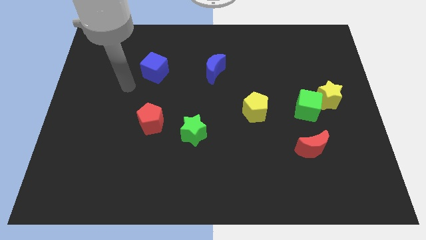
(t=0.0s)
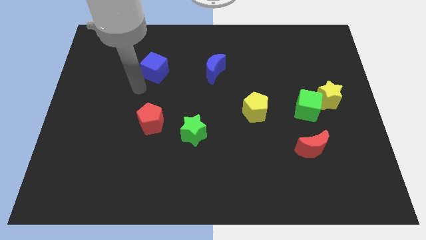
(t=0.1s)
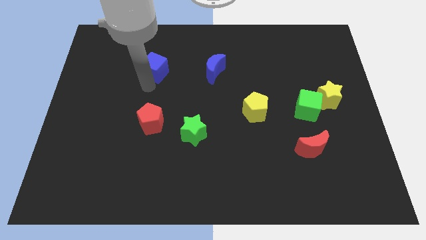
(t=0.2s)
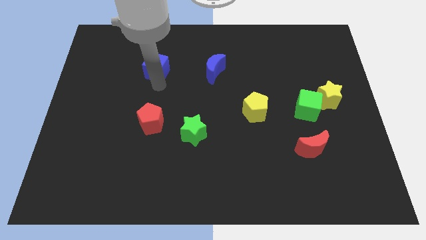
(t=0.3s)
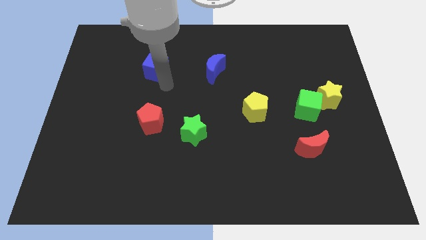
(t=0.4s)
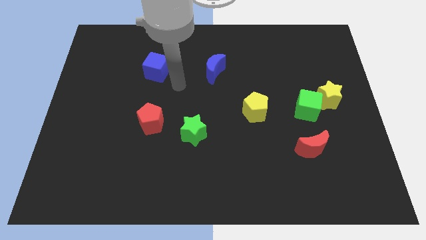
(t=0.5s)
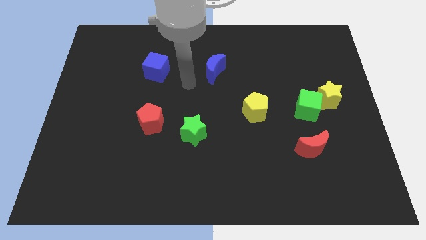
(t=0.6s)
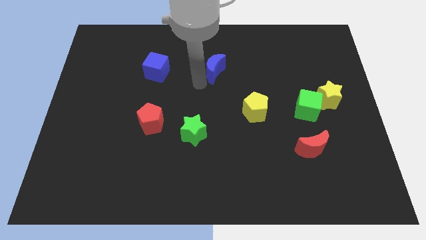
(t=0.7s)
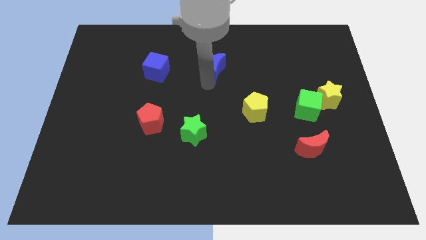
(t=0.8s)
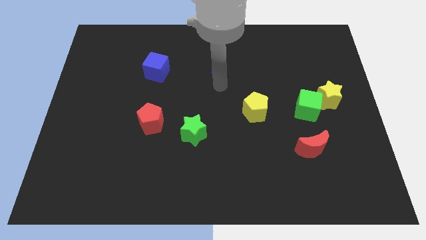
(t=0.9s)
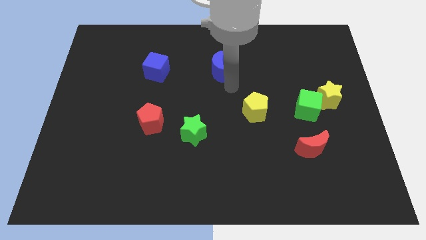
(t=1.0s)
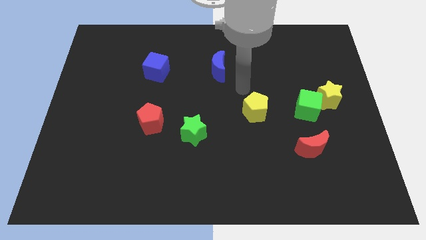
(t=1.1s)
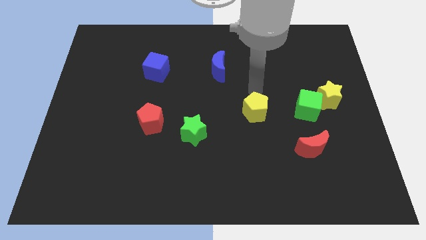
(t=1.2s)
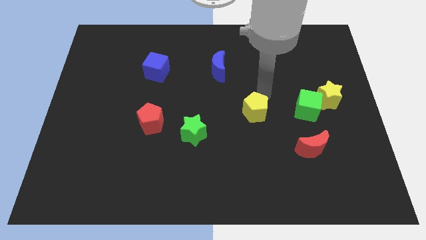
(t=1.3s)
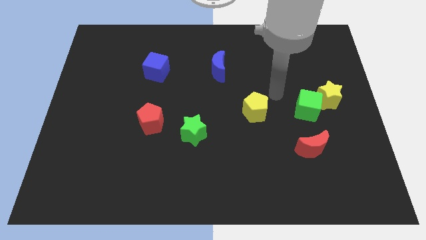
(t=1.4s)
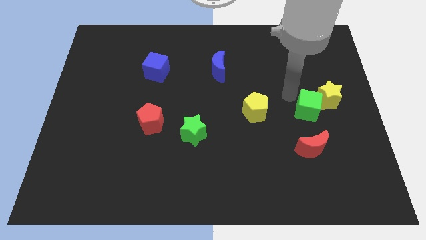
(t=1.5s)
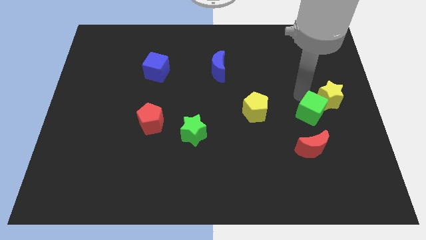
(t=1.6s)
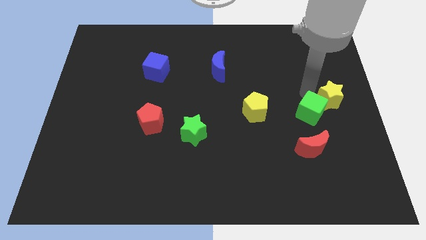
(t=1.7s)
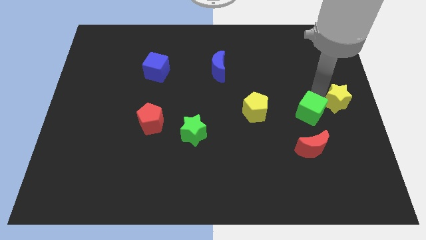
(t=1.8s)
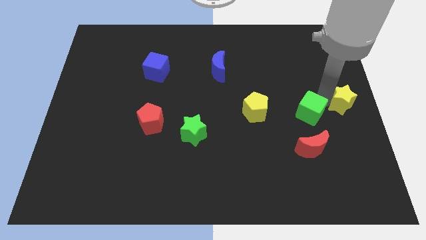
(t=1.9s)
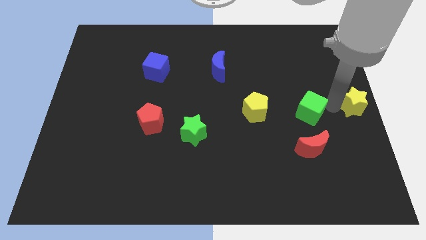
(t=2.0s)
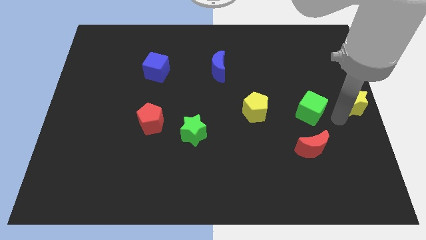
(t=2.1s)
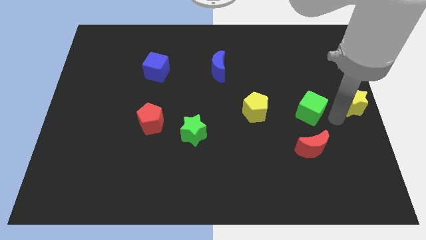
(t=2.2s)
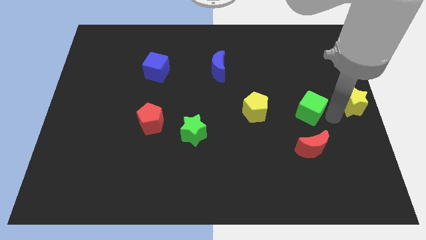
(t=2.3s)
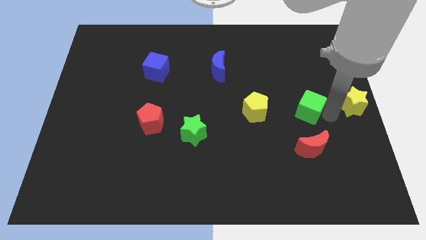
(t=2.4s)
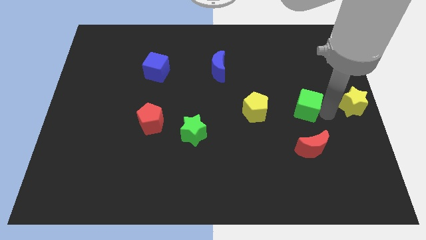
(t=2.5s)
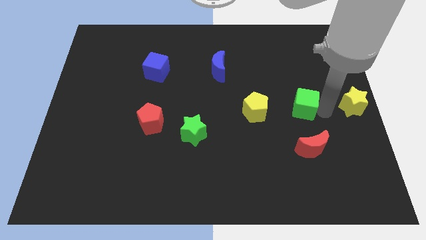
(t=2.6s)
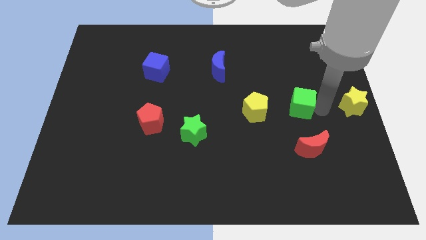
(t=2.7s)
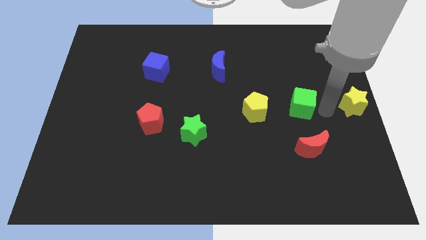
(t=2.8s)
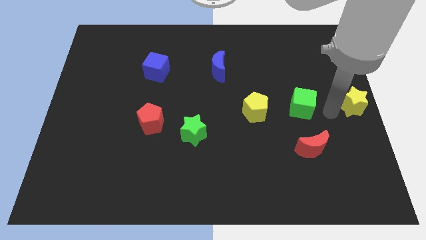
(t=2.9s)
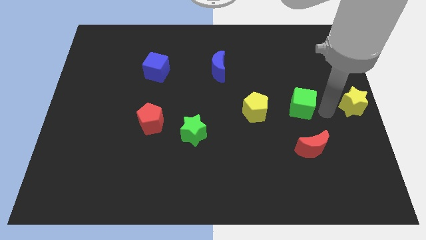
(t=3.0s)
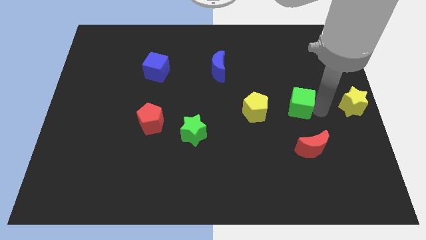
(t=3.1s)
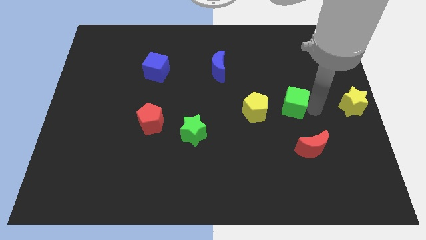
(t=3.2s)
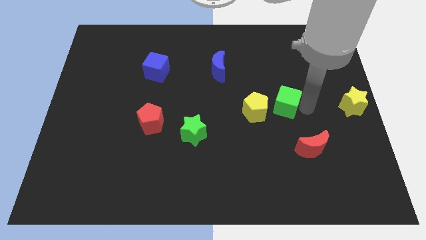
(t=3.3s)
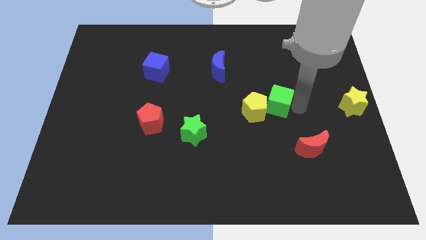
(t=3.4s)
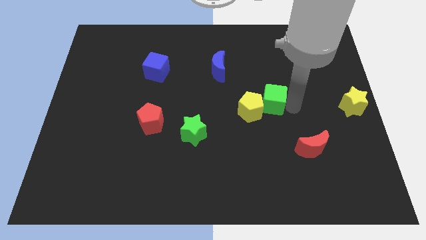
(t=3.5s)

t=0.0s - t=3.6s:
move the green cube a little to the left

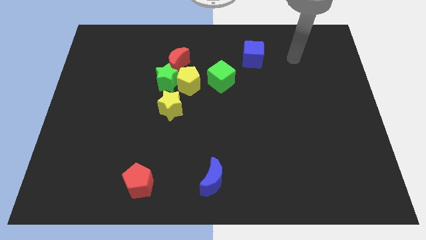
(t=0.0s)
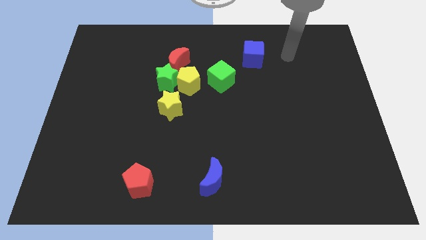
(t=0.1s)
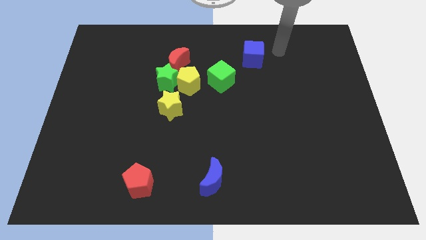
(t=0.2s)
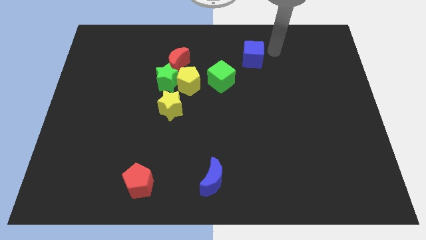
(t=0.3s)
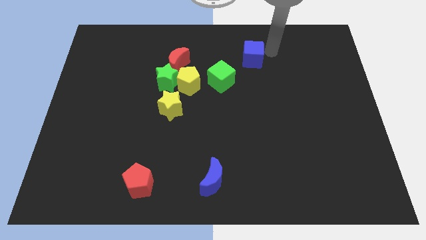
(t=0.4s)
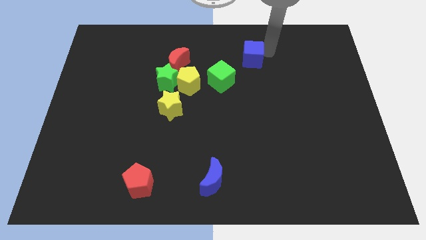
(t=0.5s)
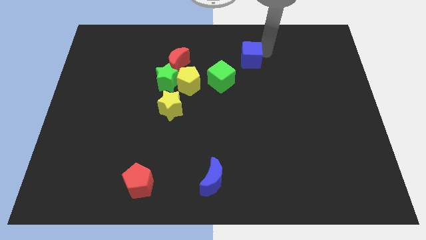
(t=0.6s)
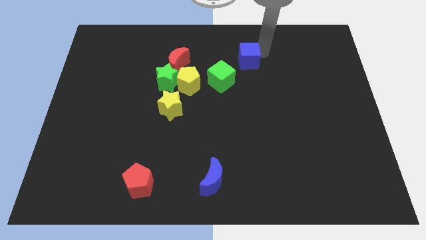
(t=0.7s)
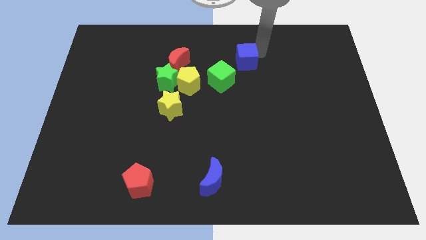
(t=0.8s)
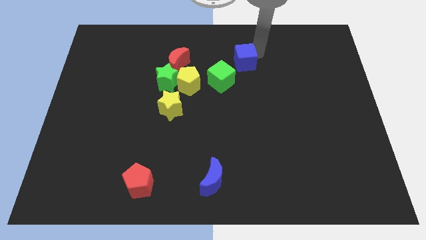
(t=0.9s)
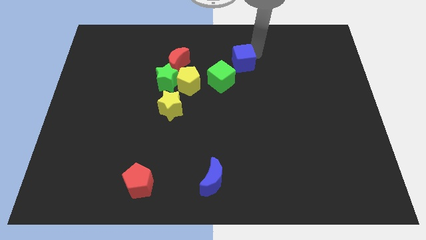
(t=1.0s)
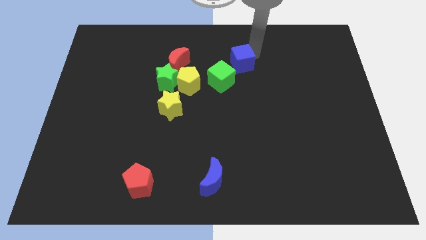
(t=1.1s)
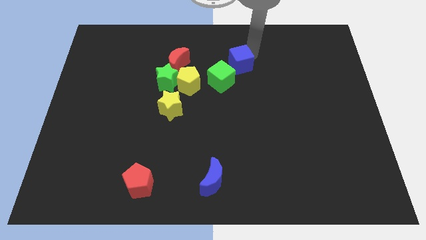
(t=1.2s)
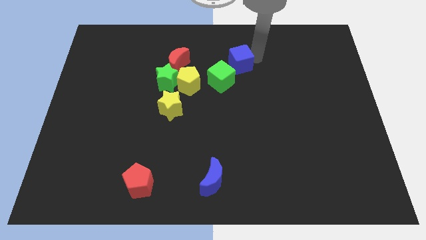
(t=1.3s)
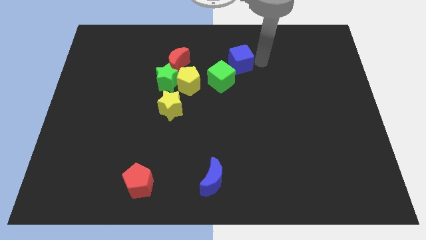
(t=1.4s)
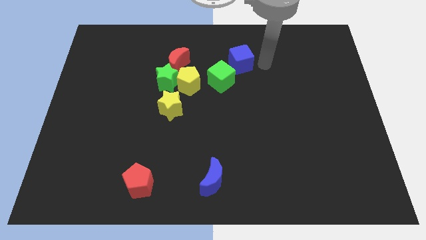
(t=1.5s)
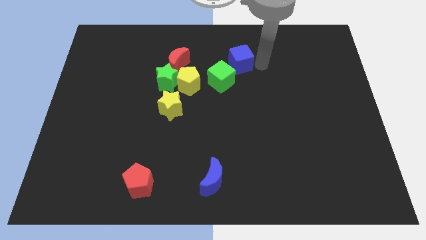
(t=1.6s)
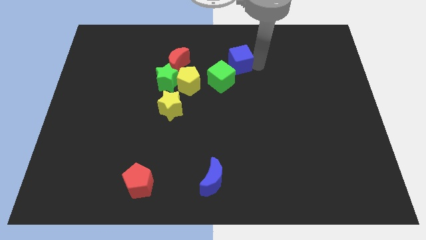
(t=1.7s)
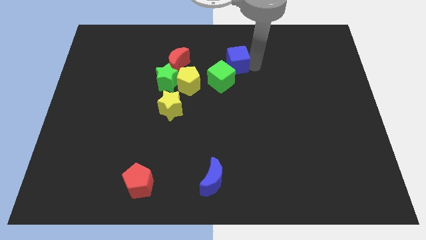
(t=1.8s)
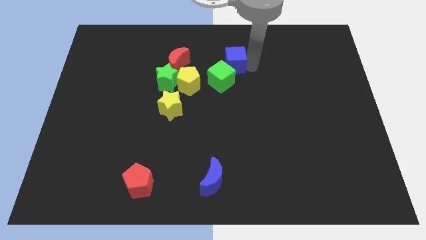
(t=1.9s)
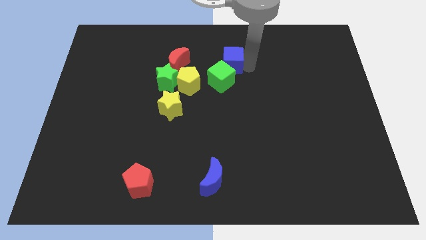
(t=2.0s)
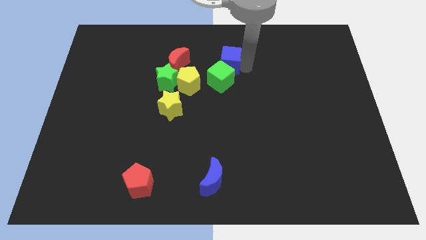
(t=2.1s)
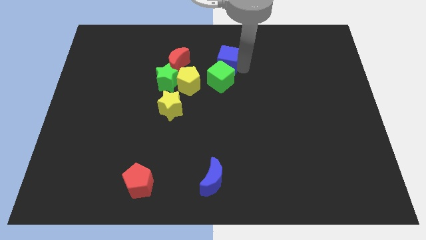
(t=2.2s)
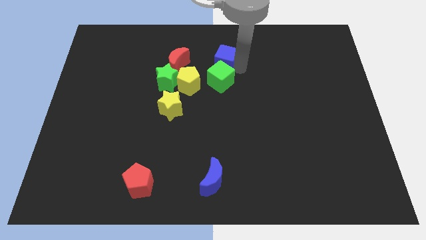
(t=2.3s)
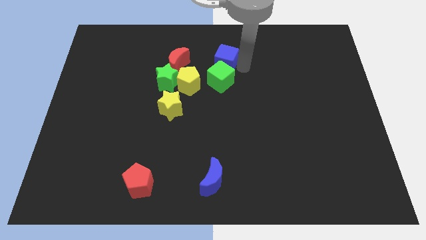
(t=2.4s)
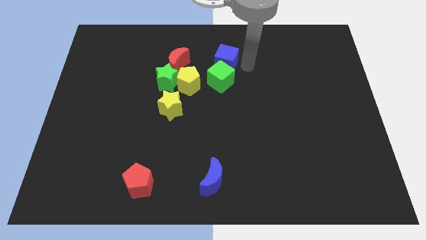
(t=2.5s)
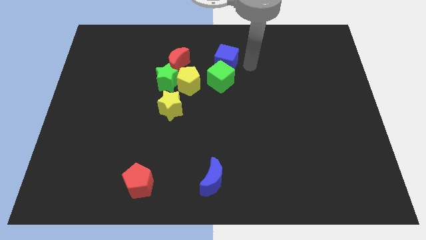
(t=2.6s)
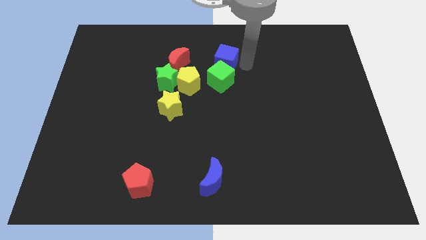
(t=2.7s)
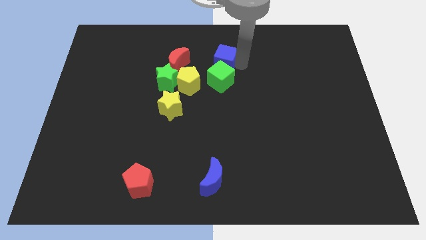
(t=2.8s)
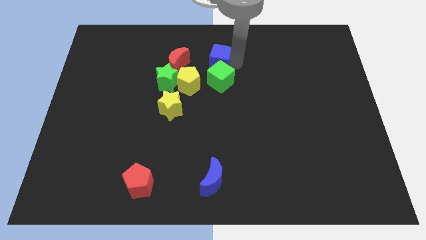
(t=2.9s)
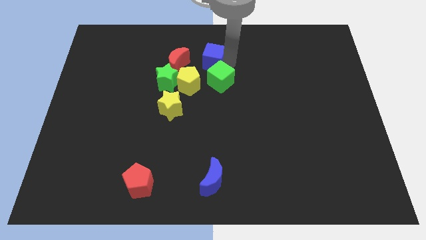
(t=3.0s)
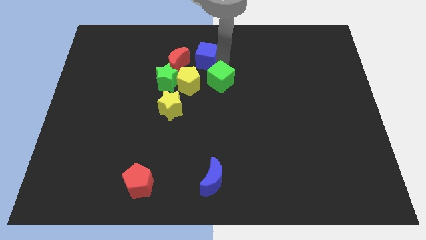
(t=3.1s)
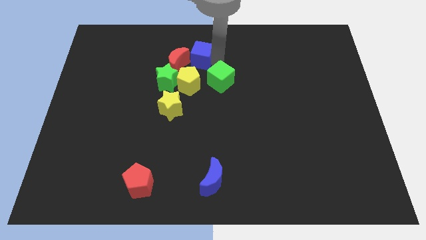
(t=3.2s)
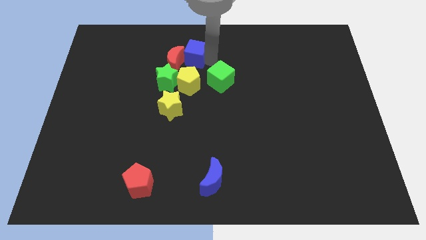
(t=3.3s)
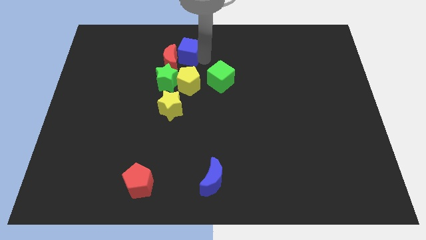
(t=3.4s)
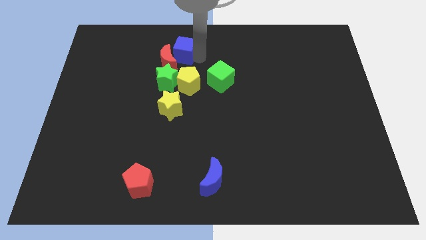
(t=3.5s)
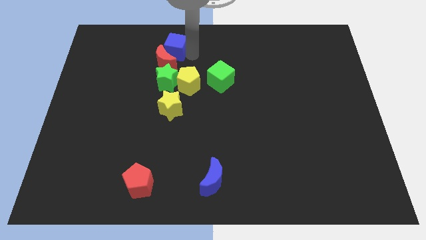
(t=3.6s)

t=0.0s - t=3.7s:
move the blue cube left

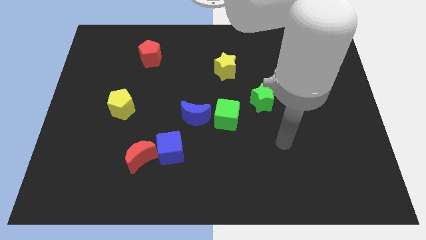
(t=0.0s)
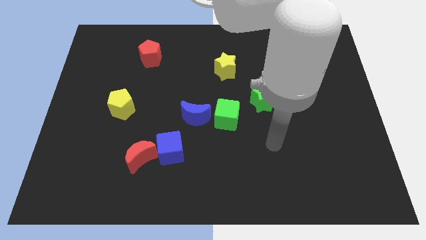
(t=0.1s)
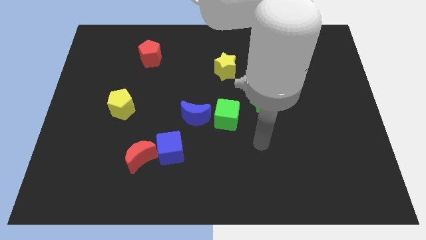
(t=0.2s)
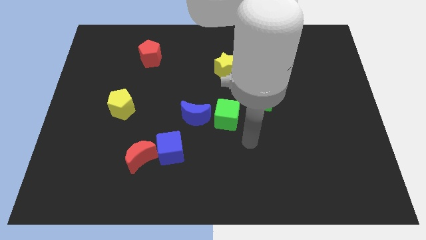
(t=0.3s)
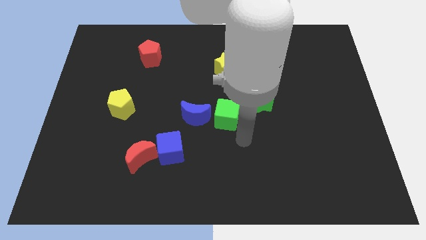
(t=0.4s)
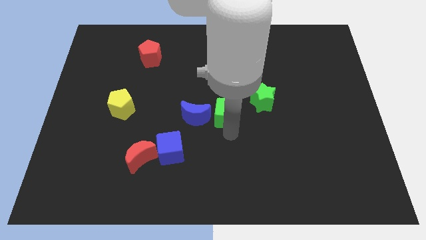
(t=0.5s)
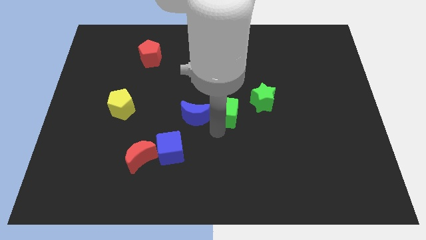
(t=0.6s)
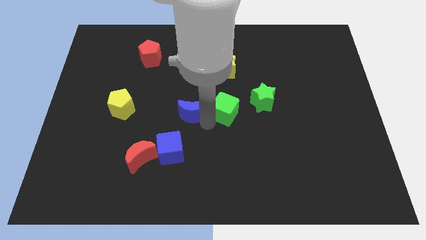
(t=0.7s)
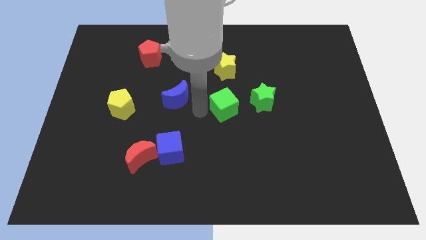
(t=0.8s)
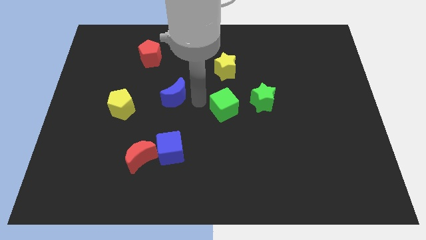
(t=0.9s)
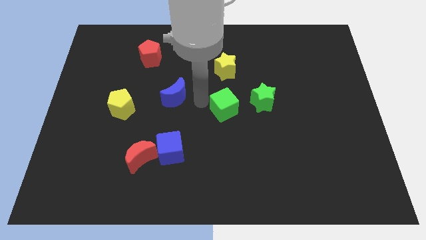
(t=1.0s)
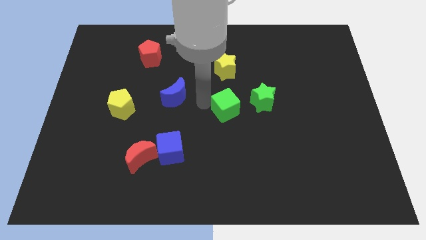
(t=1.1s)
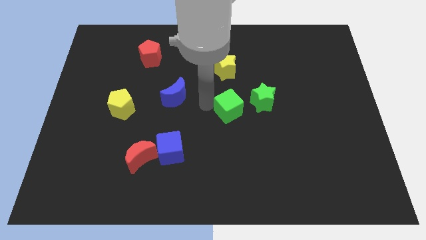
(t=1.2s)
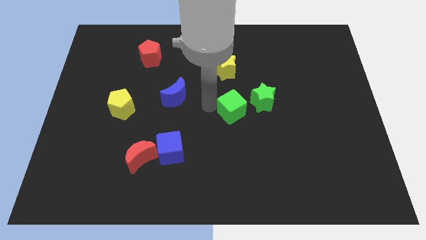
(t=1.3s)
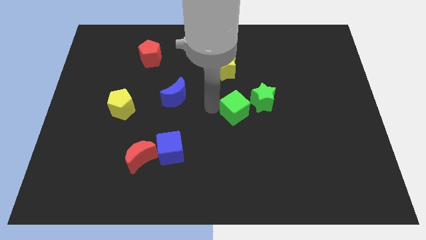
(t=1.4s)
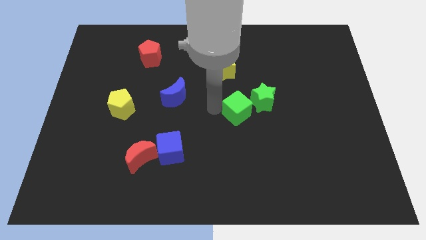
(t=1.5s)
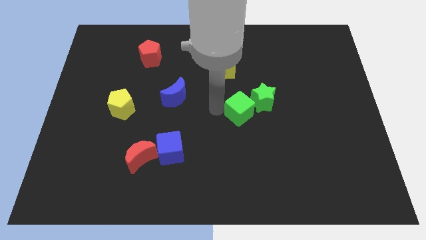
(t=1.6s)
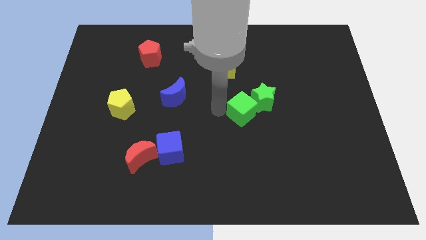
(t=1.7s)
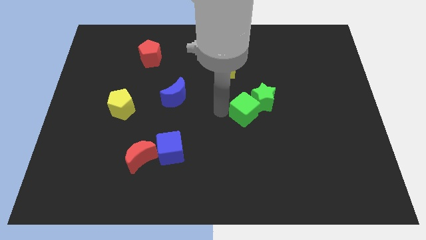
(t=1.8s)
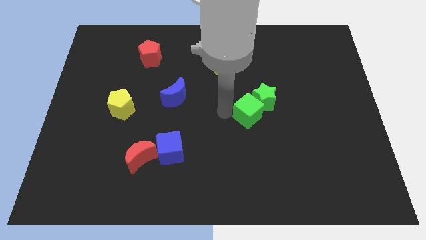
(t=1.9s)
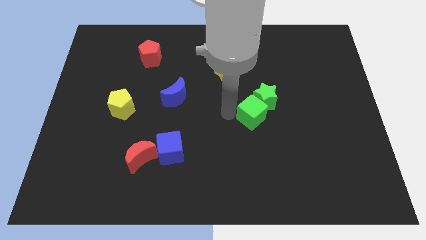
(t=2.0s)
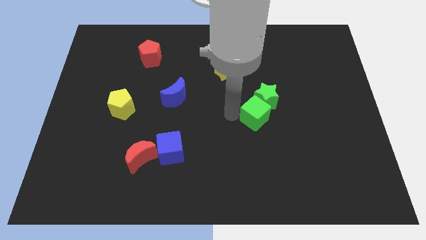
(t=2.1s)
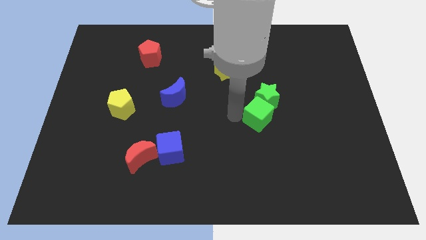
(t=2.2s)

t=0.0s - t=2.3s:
move the green cube a bit to the right
